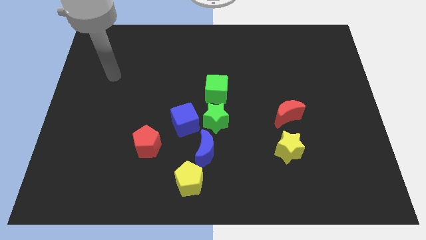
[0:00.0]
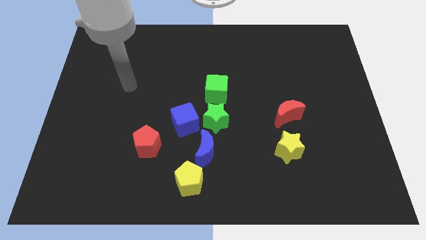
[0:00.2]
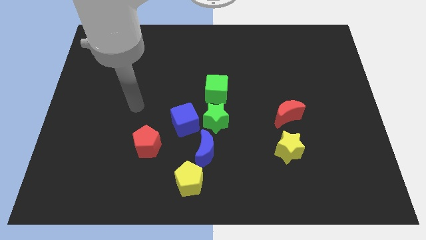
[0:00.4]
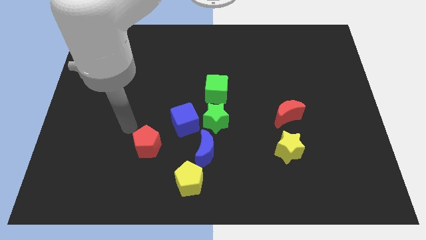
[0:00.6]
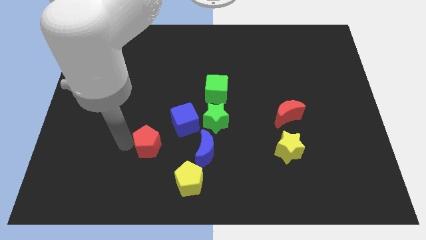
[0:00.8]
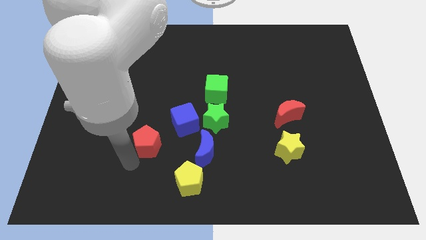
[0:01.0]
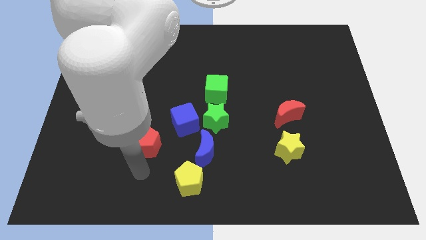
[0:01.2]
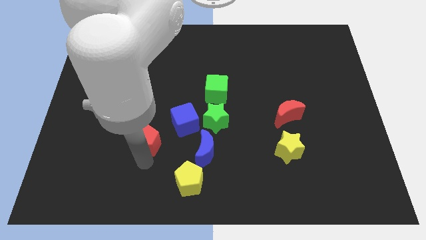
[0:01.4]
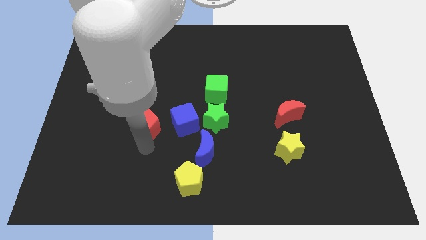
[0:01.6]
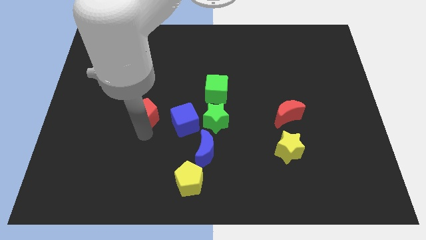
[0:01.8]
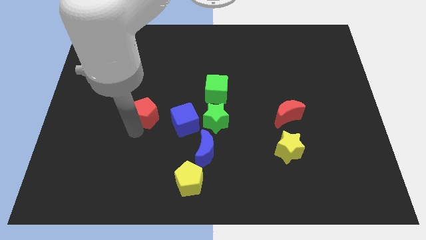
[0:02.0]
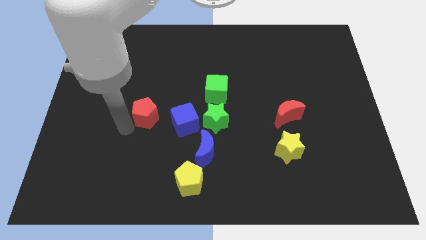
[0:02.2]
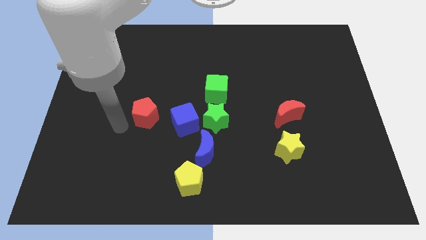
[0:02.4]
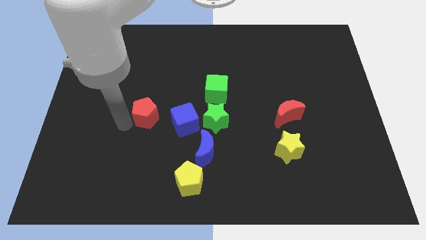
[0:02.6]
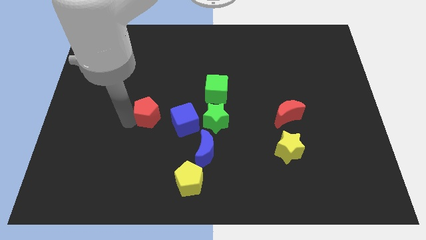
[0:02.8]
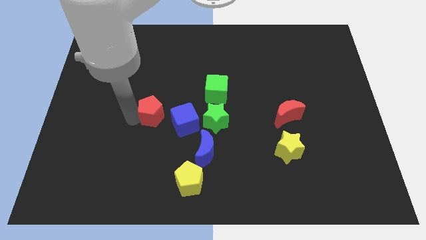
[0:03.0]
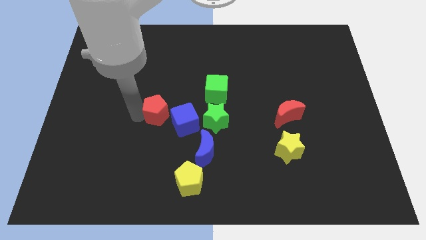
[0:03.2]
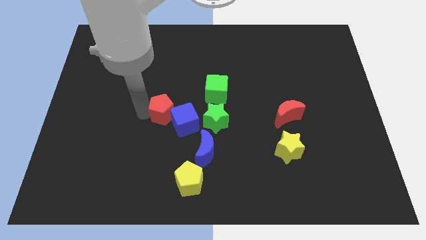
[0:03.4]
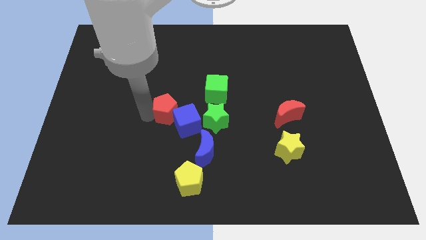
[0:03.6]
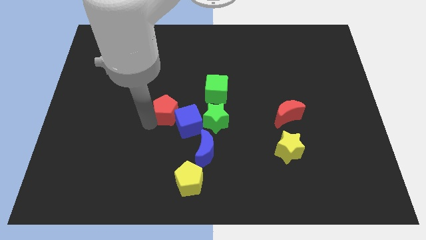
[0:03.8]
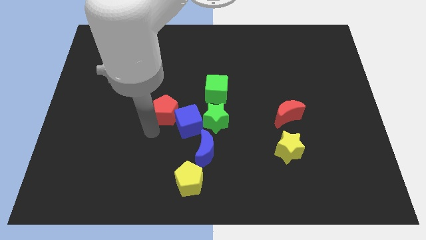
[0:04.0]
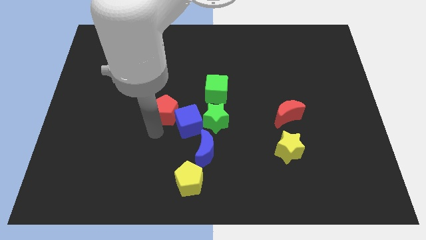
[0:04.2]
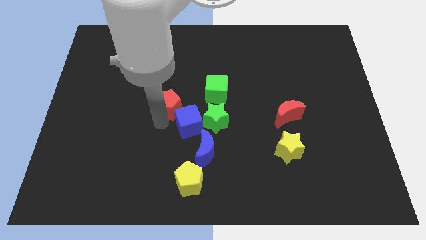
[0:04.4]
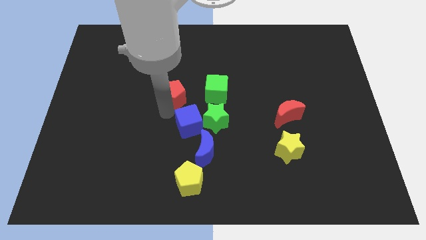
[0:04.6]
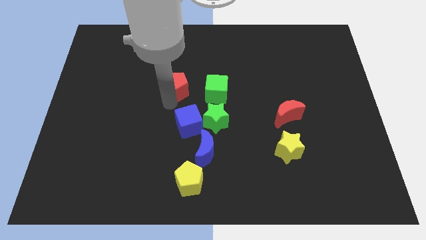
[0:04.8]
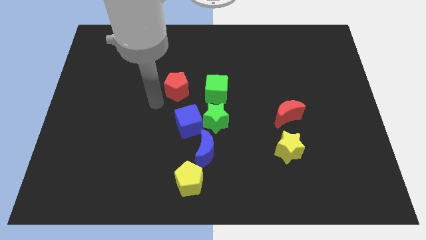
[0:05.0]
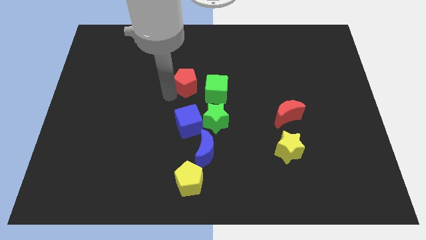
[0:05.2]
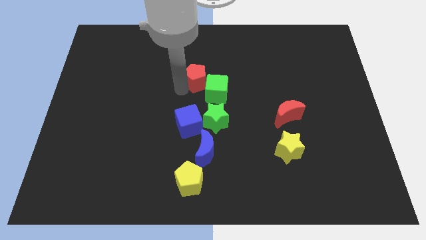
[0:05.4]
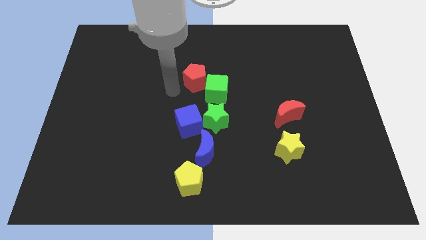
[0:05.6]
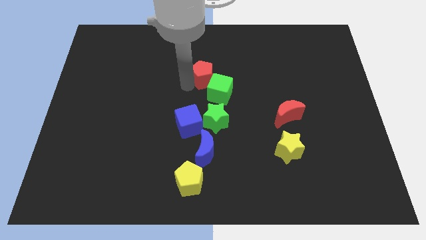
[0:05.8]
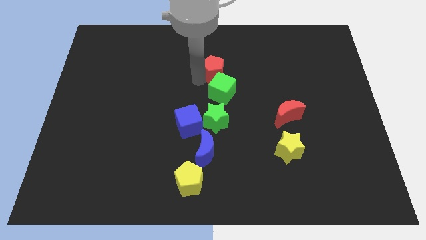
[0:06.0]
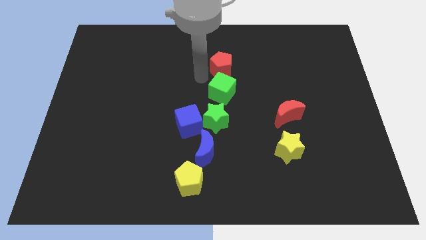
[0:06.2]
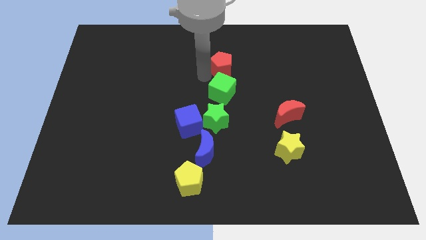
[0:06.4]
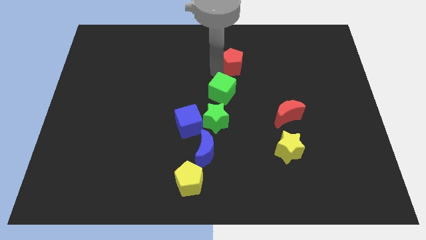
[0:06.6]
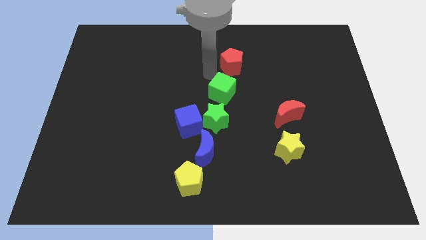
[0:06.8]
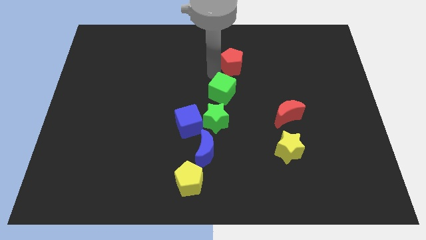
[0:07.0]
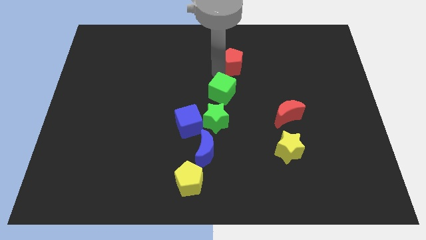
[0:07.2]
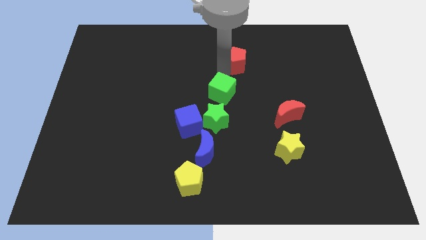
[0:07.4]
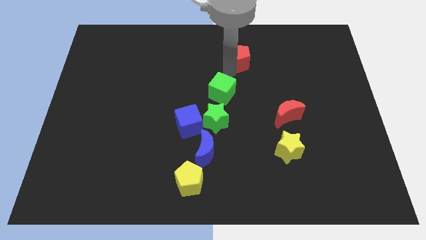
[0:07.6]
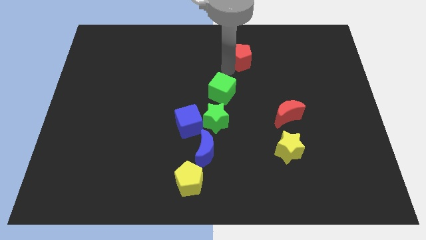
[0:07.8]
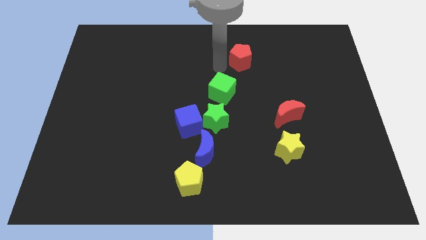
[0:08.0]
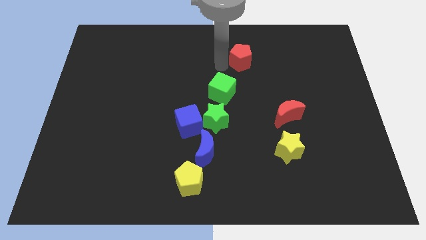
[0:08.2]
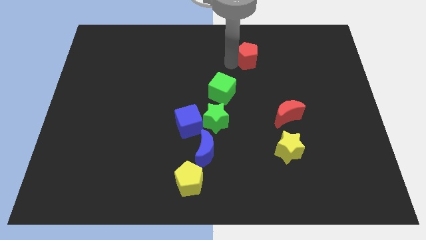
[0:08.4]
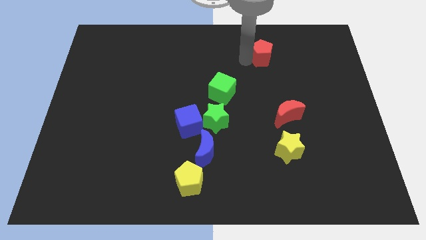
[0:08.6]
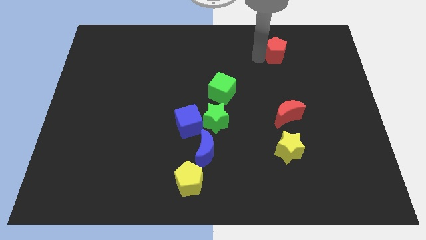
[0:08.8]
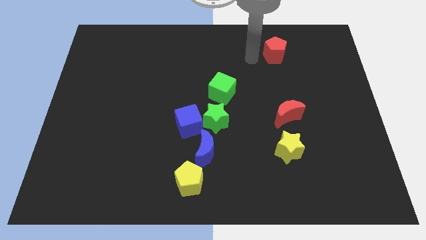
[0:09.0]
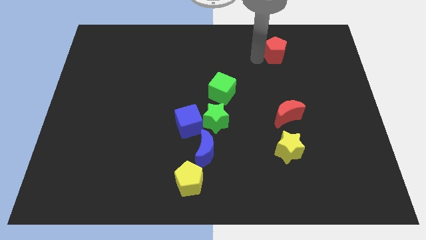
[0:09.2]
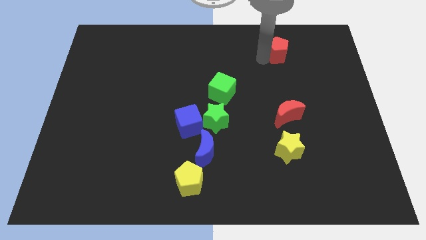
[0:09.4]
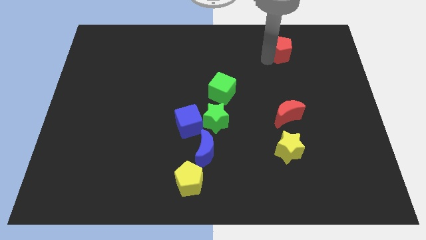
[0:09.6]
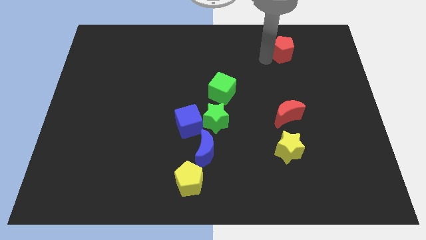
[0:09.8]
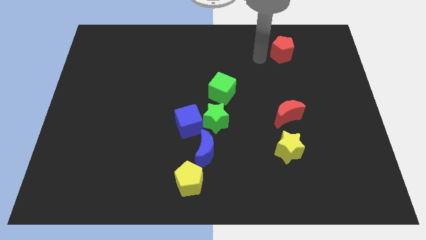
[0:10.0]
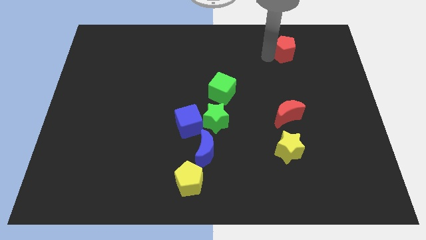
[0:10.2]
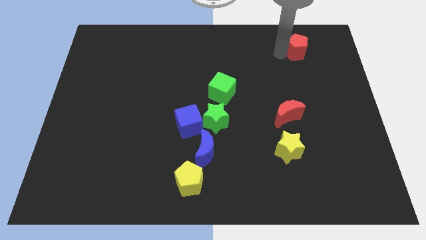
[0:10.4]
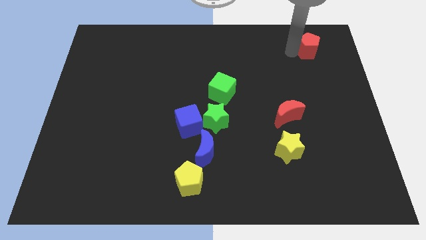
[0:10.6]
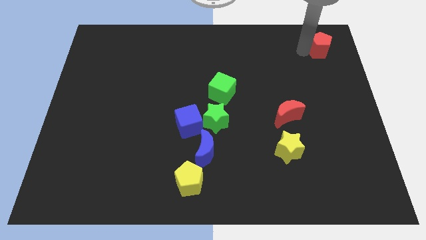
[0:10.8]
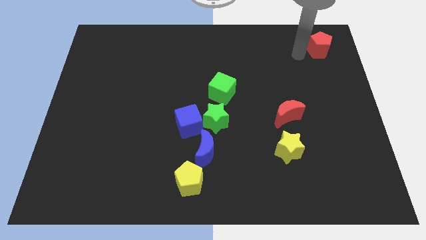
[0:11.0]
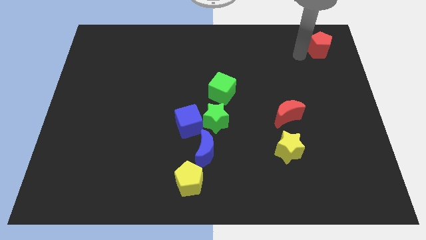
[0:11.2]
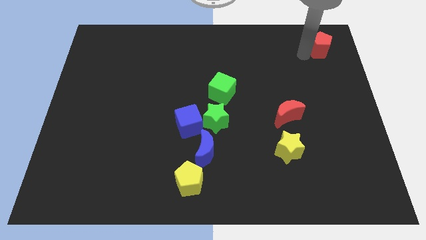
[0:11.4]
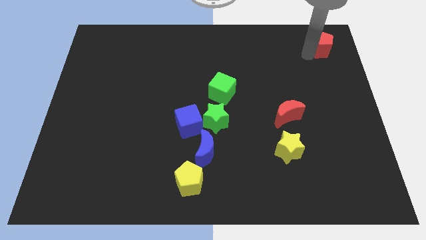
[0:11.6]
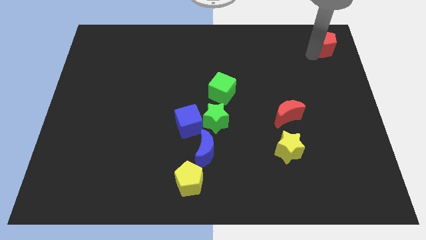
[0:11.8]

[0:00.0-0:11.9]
move the red pentagon to the top right of the board

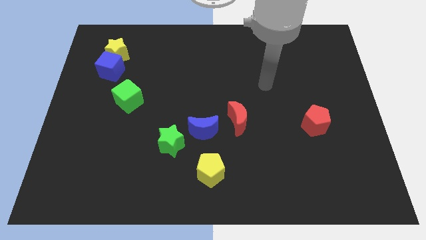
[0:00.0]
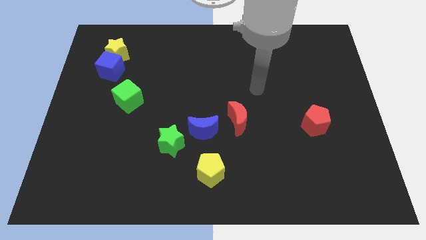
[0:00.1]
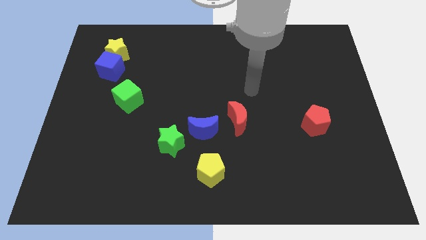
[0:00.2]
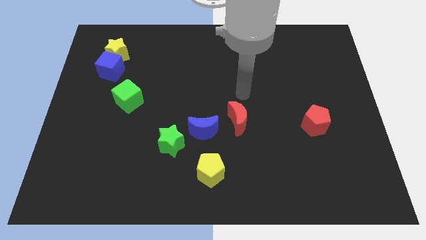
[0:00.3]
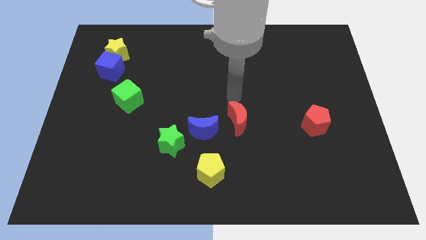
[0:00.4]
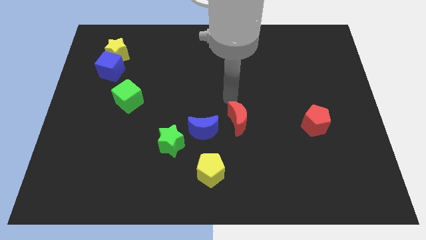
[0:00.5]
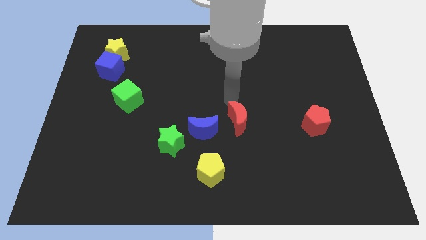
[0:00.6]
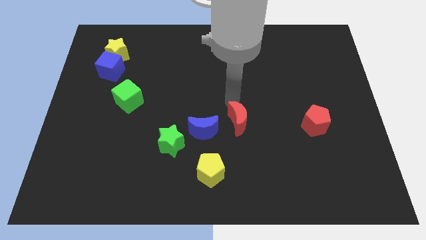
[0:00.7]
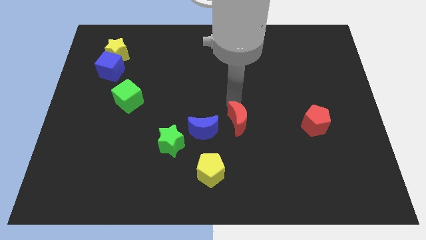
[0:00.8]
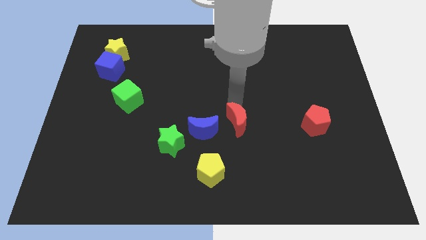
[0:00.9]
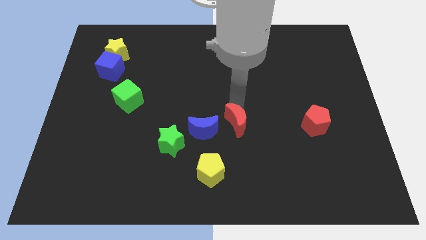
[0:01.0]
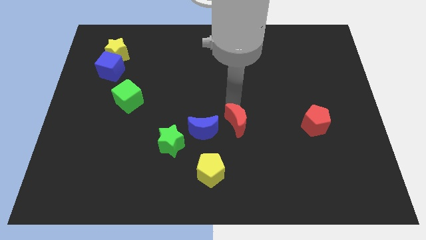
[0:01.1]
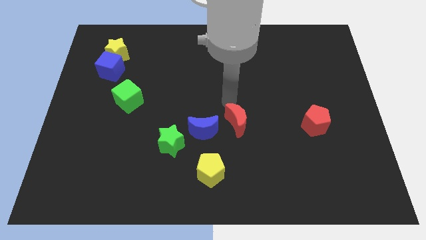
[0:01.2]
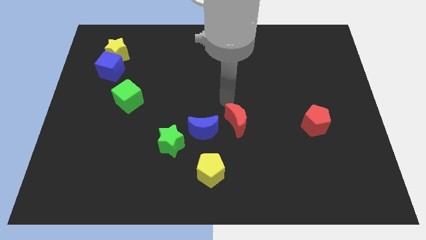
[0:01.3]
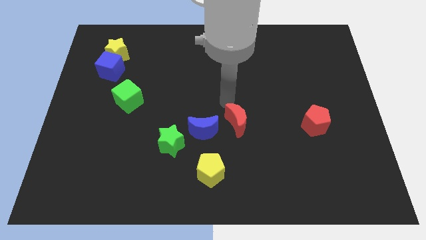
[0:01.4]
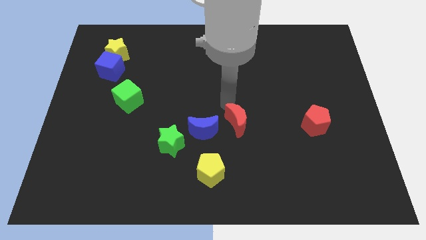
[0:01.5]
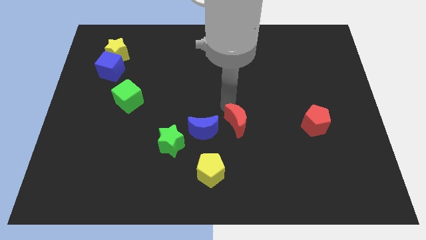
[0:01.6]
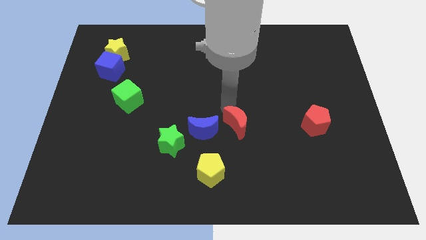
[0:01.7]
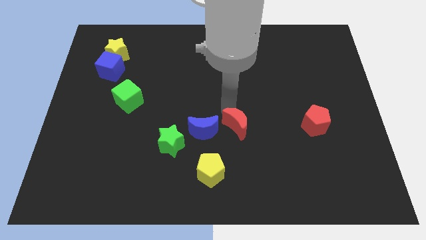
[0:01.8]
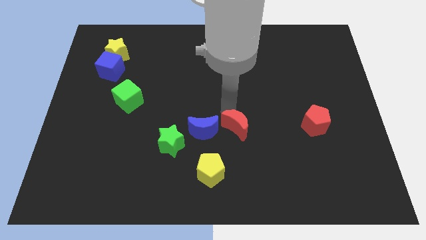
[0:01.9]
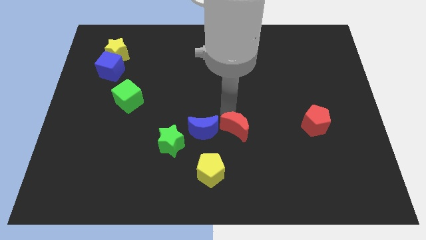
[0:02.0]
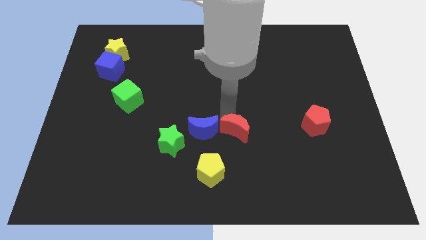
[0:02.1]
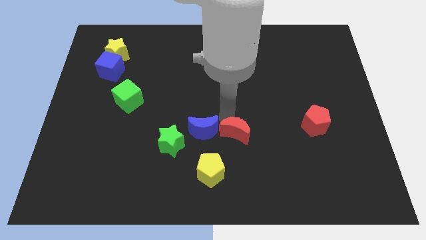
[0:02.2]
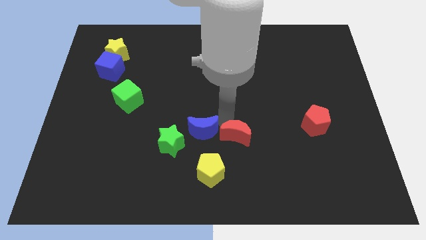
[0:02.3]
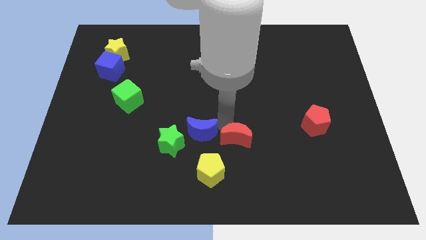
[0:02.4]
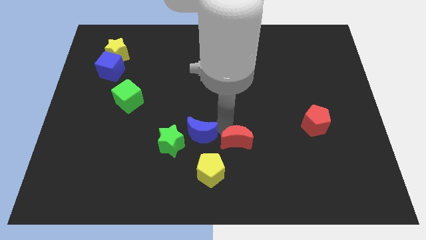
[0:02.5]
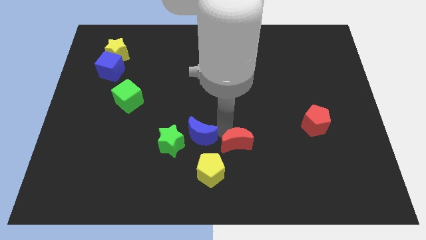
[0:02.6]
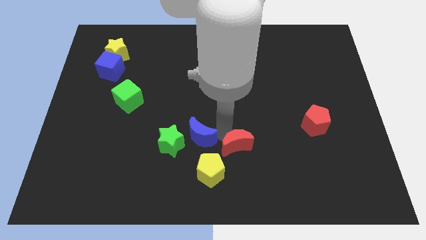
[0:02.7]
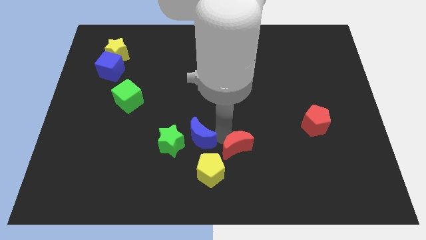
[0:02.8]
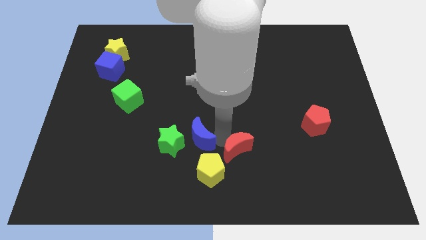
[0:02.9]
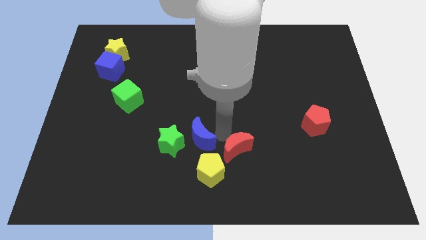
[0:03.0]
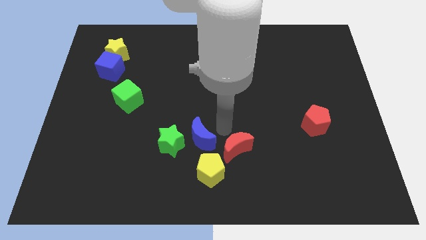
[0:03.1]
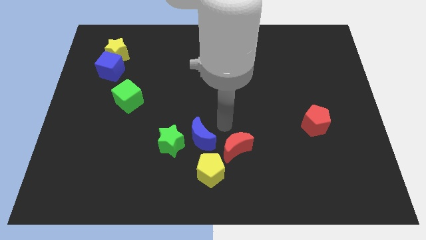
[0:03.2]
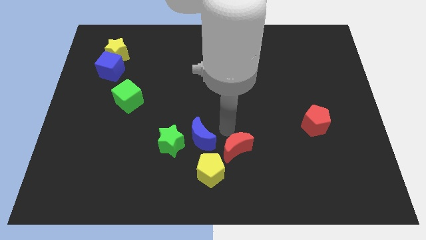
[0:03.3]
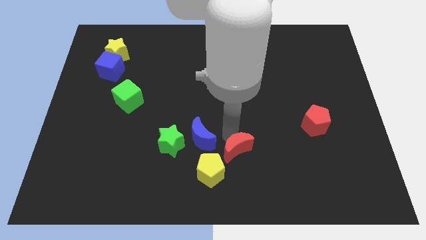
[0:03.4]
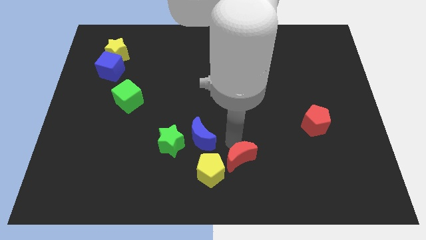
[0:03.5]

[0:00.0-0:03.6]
put the red moon to the bottom side
